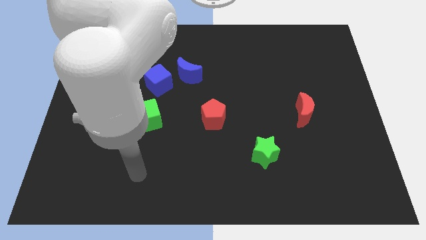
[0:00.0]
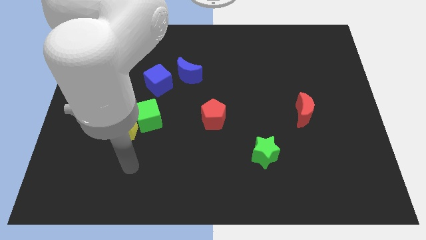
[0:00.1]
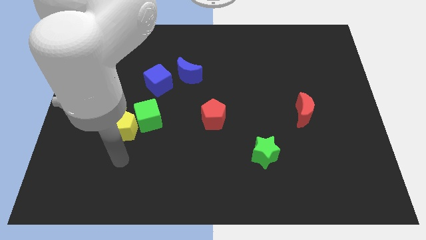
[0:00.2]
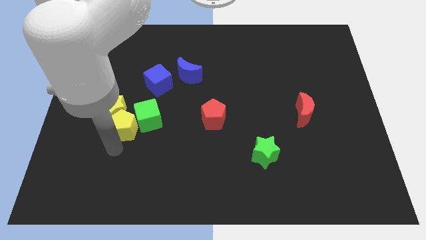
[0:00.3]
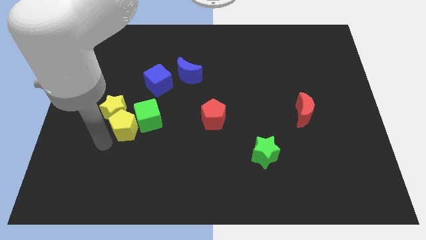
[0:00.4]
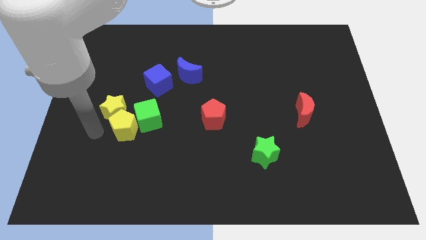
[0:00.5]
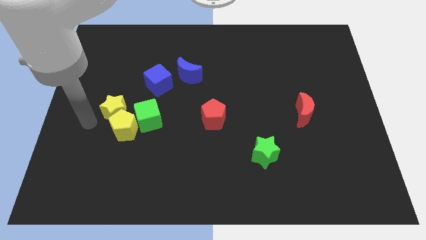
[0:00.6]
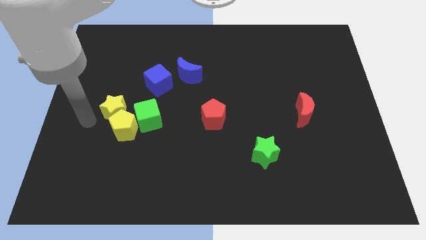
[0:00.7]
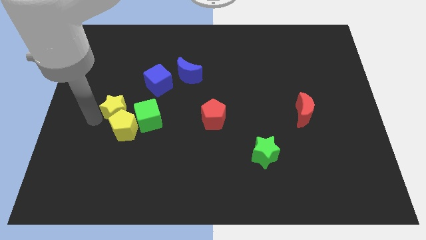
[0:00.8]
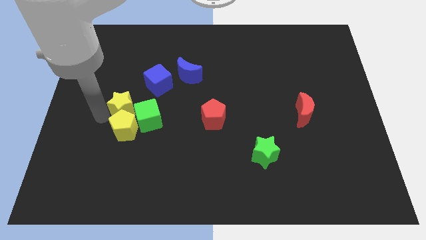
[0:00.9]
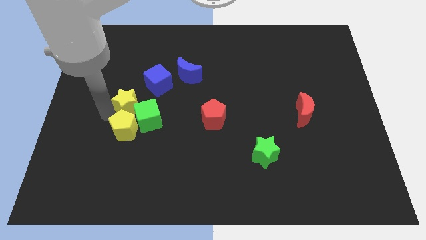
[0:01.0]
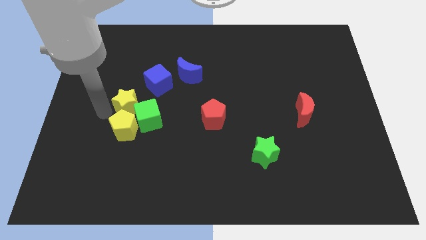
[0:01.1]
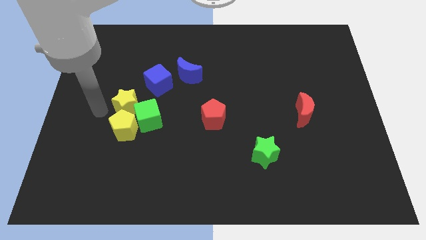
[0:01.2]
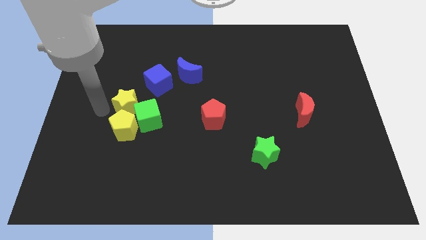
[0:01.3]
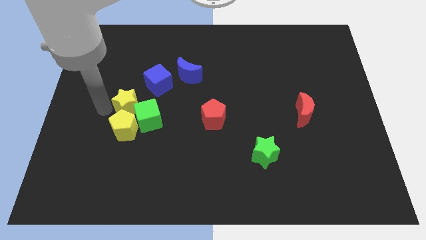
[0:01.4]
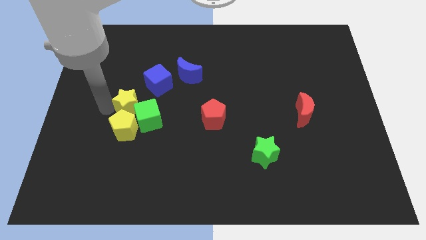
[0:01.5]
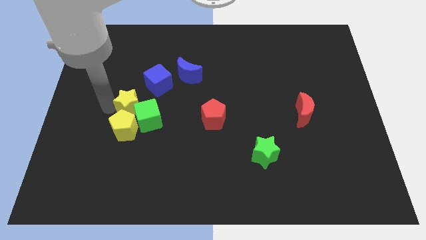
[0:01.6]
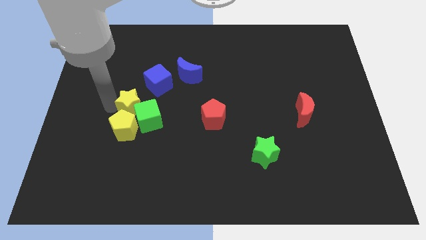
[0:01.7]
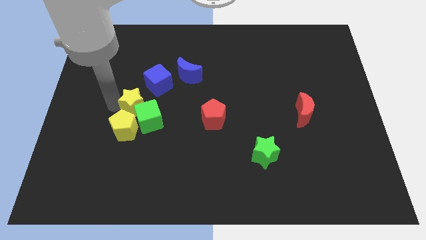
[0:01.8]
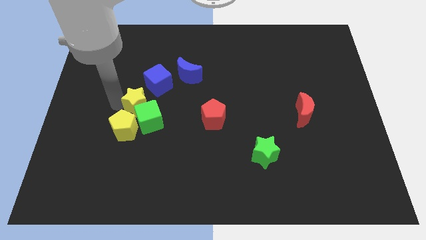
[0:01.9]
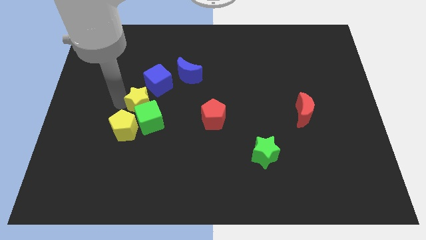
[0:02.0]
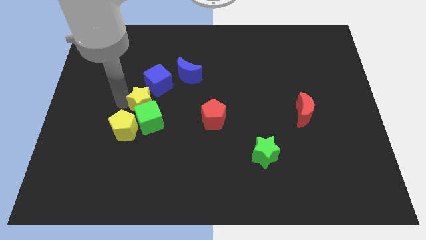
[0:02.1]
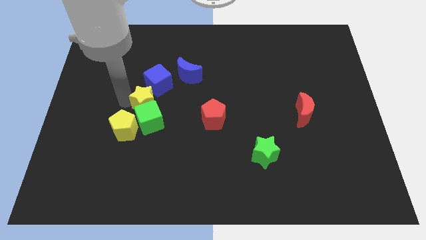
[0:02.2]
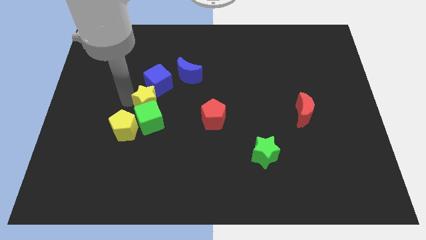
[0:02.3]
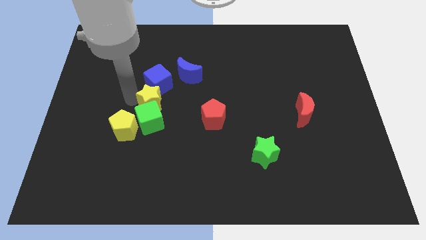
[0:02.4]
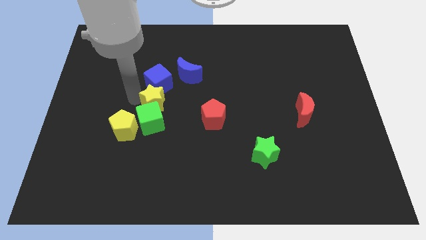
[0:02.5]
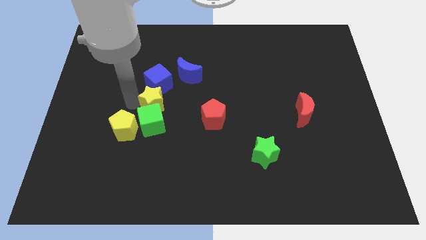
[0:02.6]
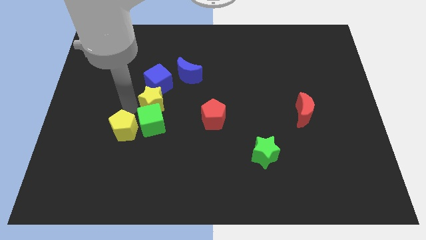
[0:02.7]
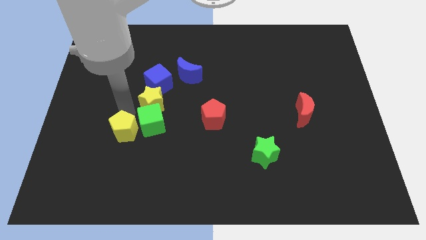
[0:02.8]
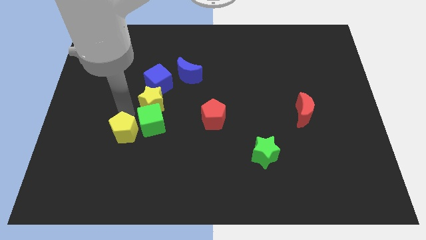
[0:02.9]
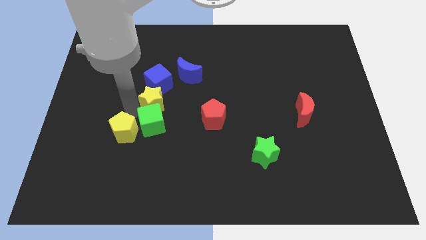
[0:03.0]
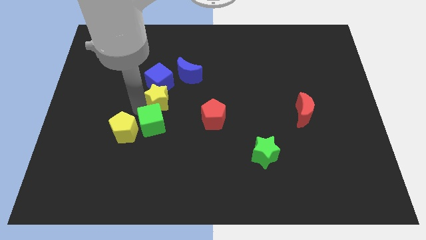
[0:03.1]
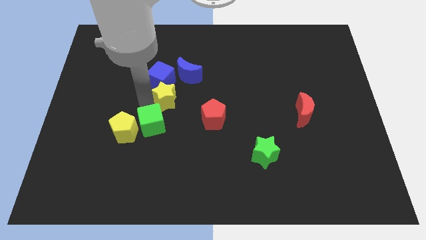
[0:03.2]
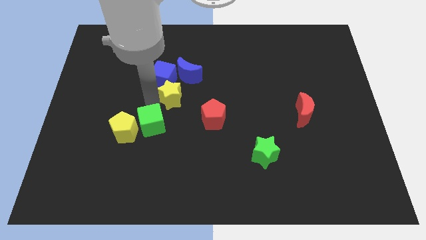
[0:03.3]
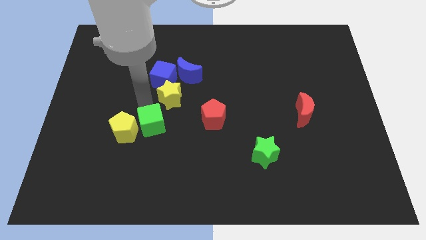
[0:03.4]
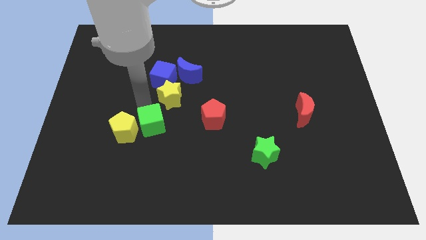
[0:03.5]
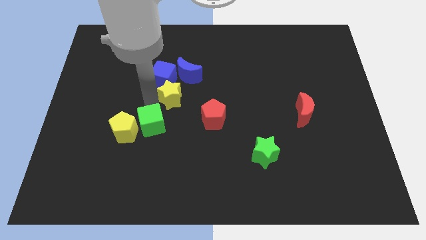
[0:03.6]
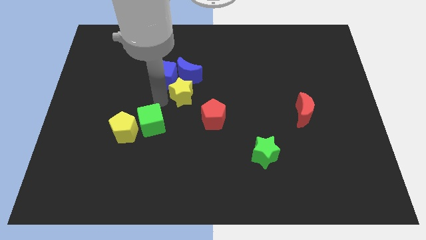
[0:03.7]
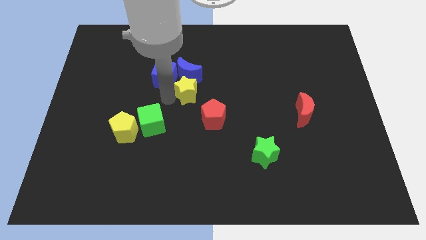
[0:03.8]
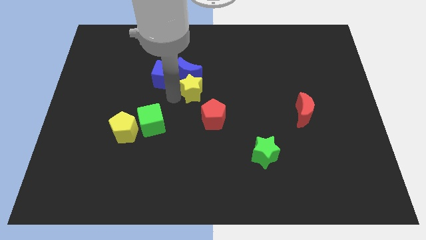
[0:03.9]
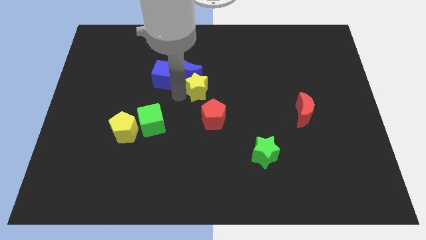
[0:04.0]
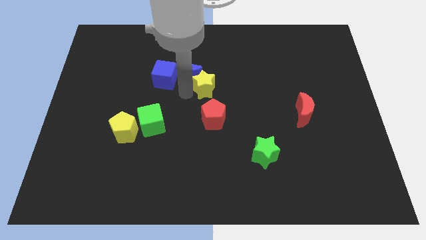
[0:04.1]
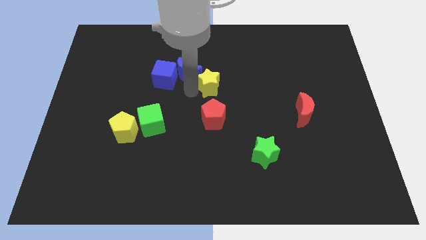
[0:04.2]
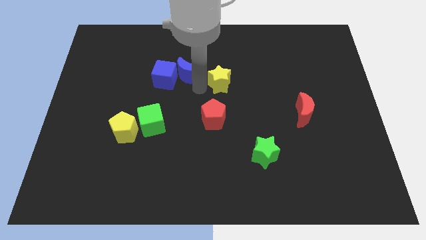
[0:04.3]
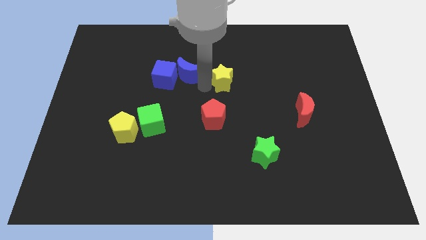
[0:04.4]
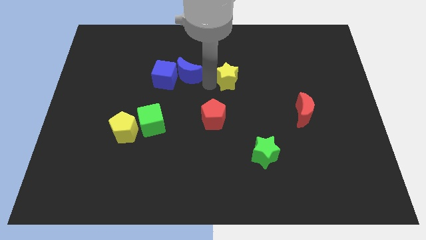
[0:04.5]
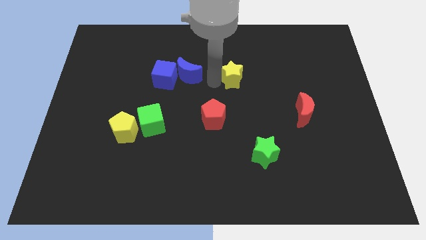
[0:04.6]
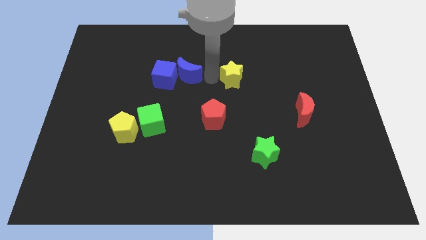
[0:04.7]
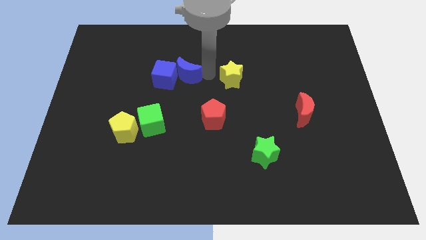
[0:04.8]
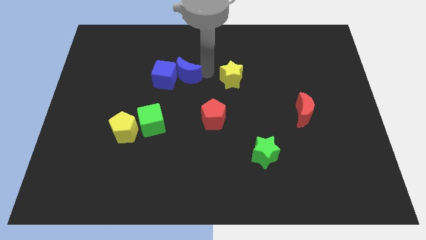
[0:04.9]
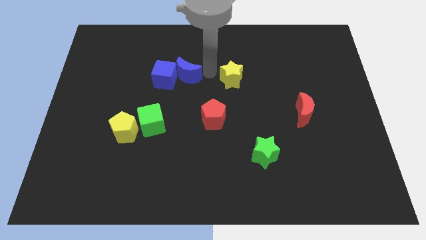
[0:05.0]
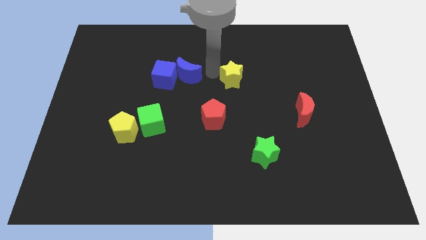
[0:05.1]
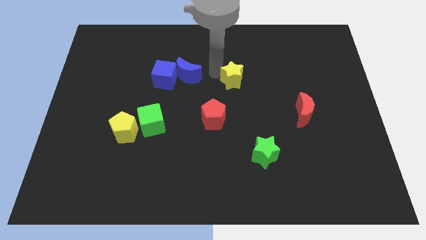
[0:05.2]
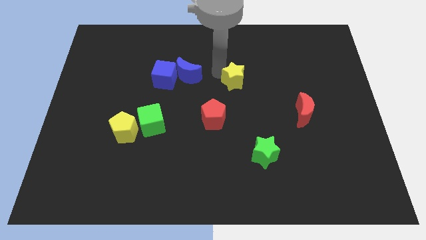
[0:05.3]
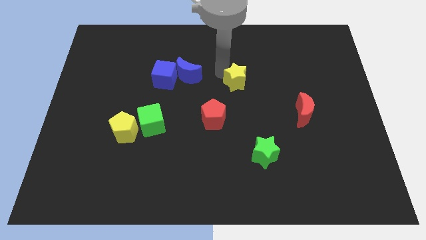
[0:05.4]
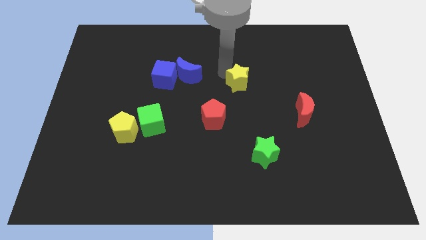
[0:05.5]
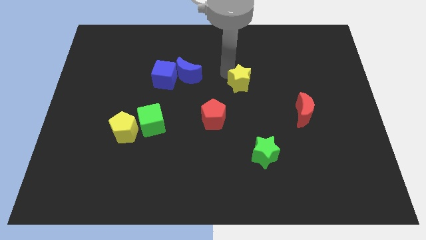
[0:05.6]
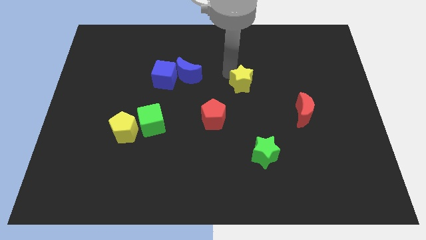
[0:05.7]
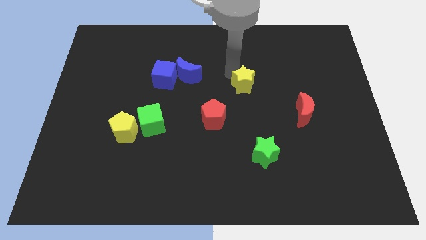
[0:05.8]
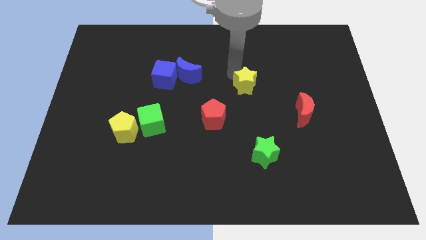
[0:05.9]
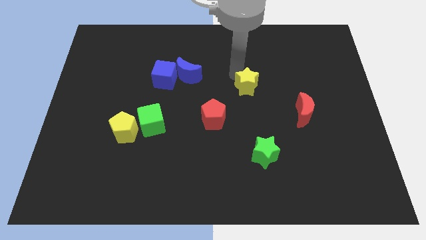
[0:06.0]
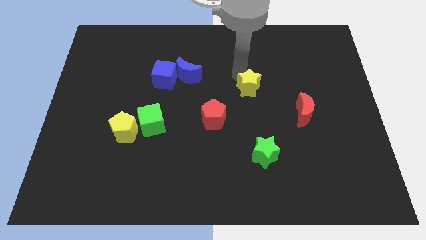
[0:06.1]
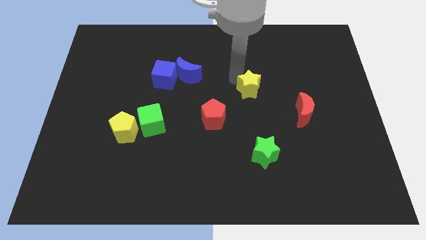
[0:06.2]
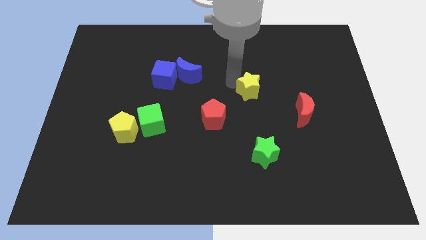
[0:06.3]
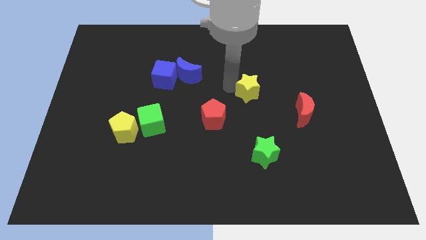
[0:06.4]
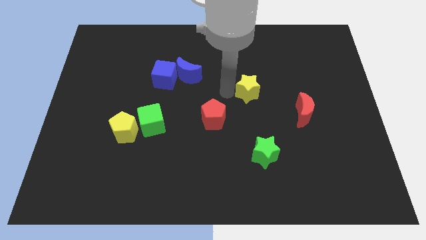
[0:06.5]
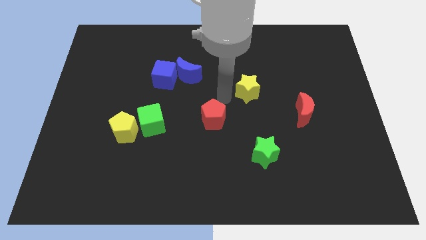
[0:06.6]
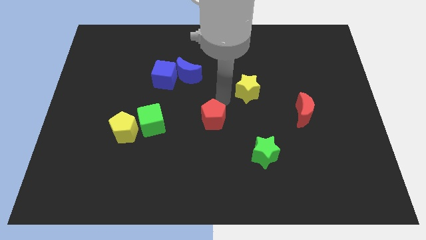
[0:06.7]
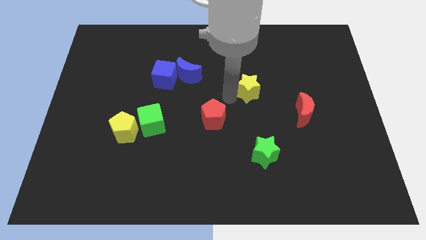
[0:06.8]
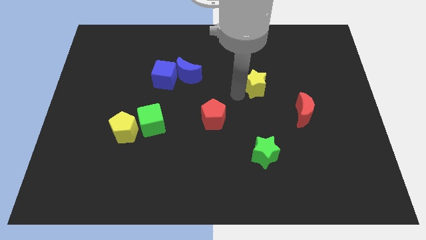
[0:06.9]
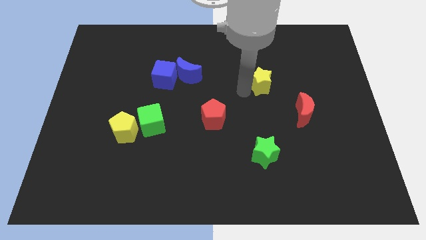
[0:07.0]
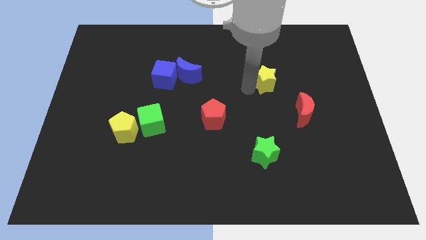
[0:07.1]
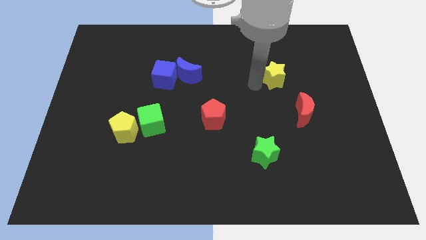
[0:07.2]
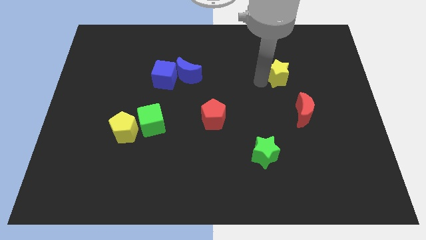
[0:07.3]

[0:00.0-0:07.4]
move the yellow star above the red moon
